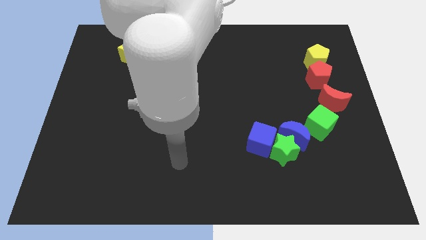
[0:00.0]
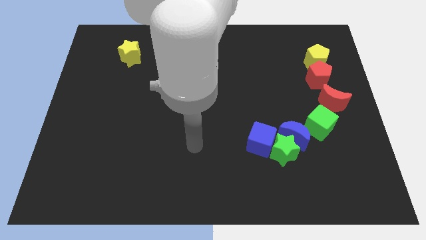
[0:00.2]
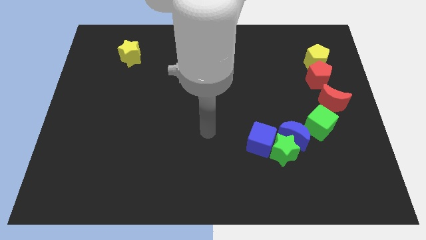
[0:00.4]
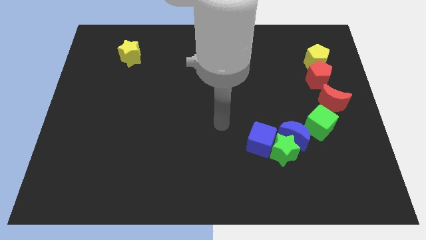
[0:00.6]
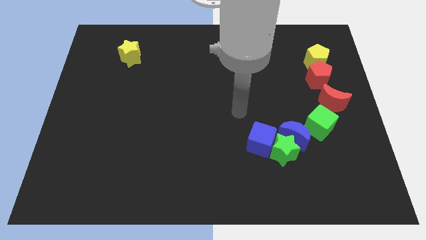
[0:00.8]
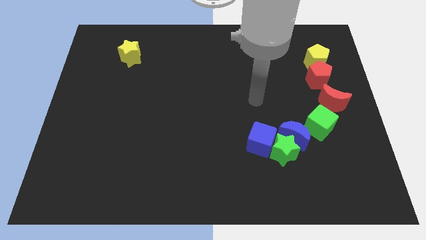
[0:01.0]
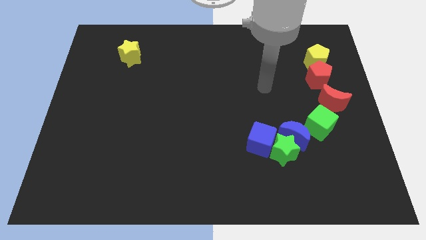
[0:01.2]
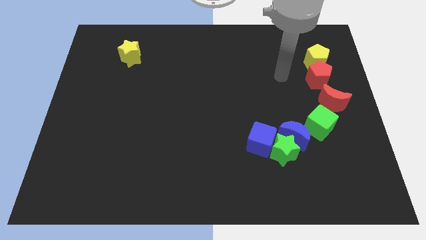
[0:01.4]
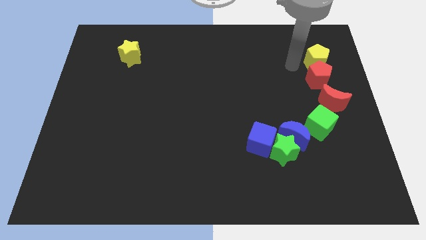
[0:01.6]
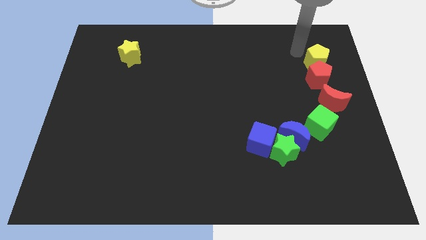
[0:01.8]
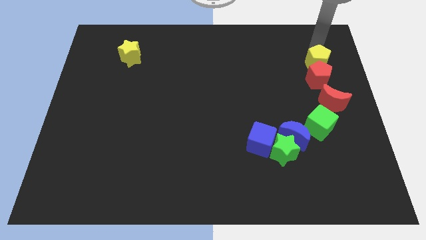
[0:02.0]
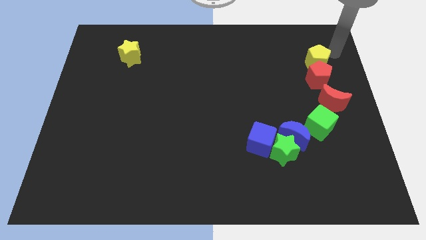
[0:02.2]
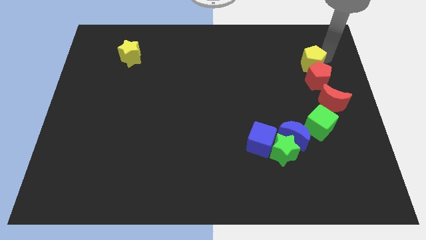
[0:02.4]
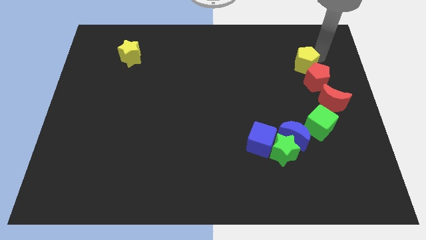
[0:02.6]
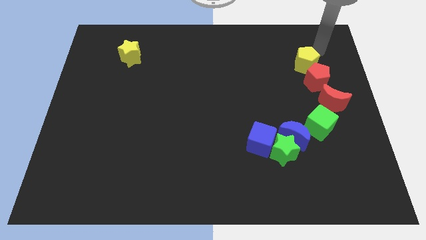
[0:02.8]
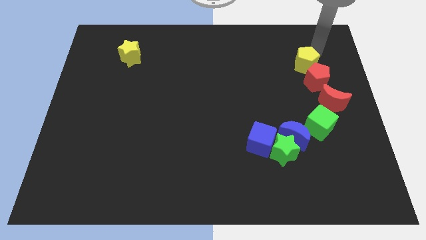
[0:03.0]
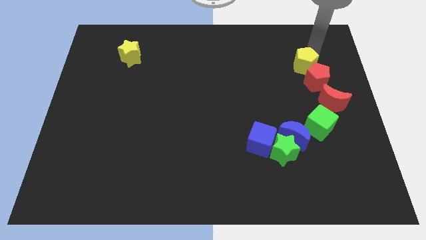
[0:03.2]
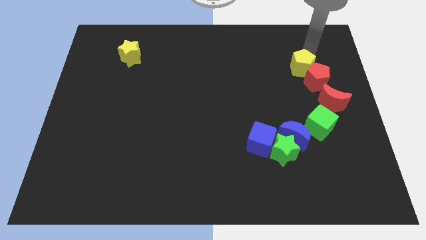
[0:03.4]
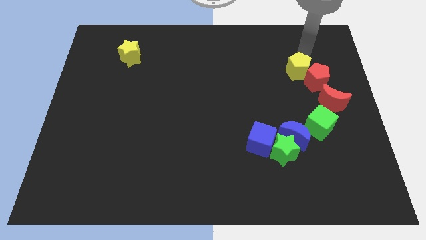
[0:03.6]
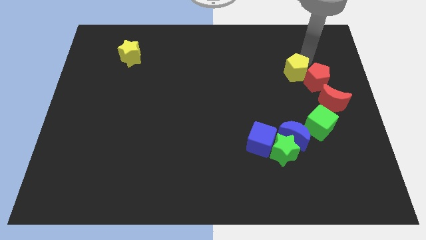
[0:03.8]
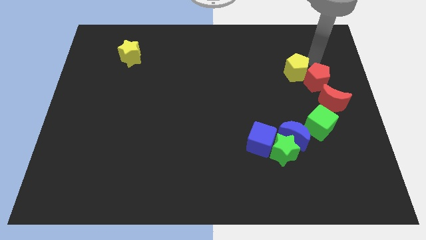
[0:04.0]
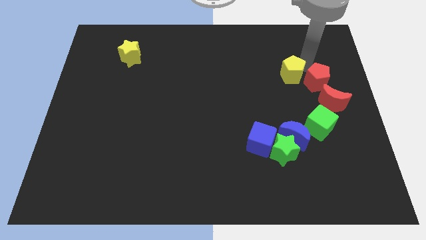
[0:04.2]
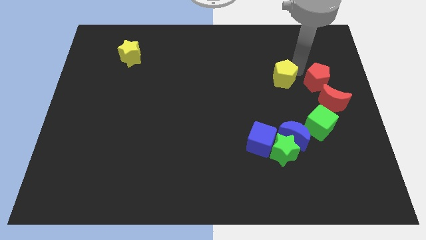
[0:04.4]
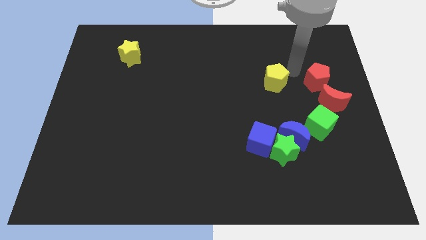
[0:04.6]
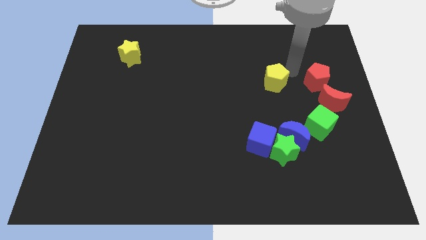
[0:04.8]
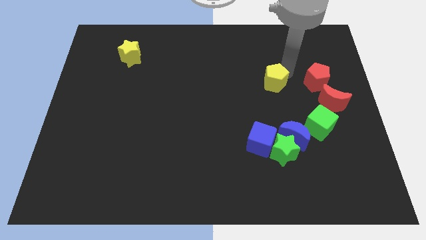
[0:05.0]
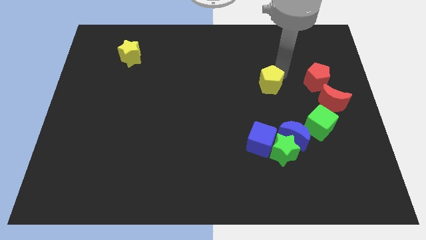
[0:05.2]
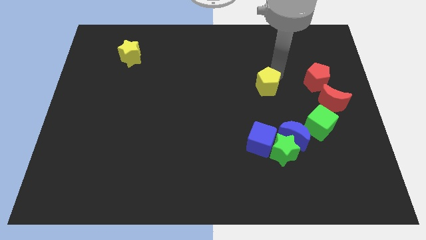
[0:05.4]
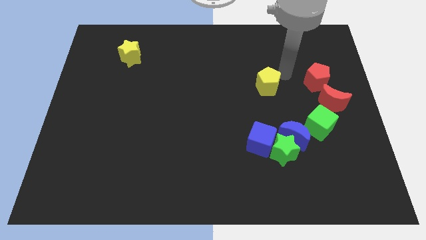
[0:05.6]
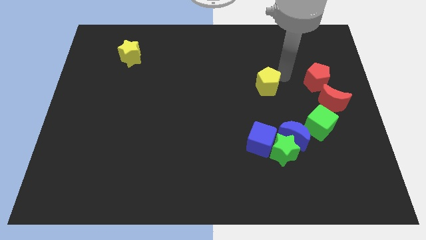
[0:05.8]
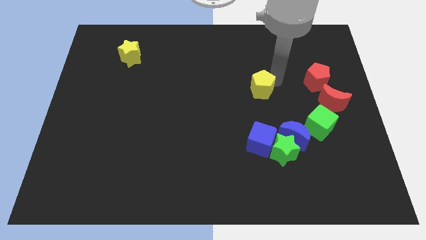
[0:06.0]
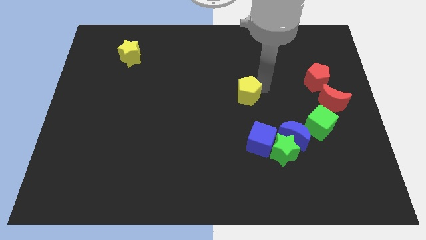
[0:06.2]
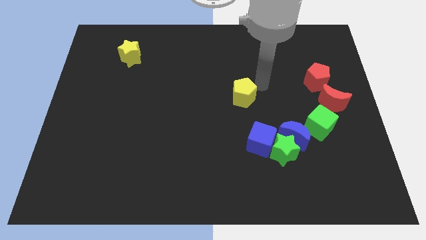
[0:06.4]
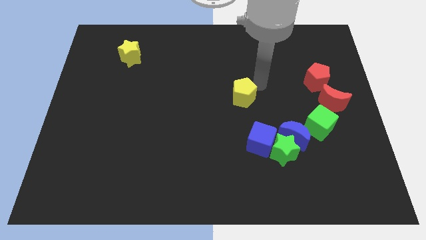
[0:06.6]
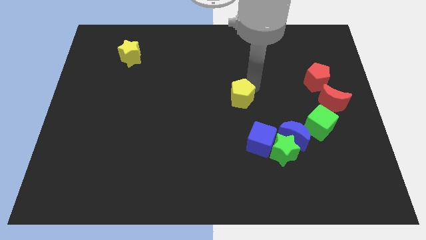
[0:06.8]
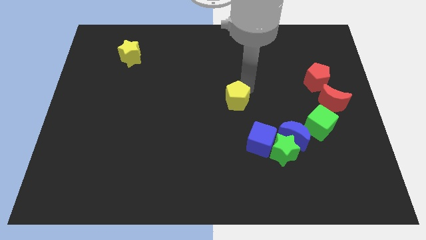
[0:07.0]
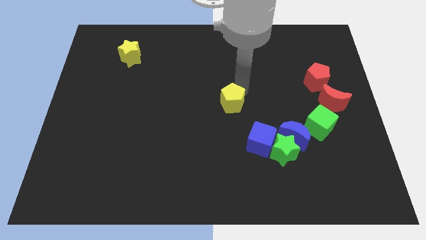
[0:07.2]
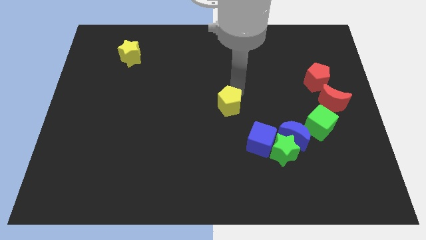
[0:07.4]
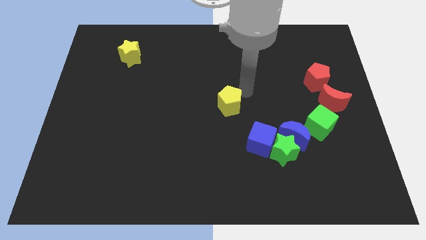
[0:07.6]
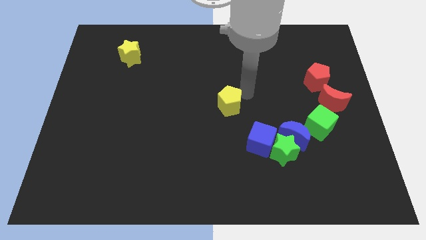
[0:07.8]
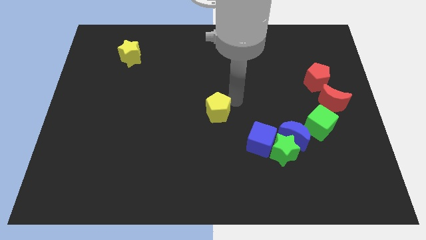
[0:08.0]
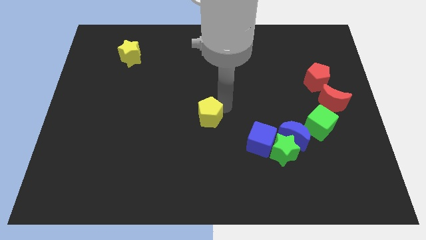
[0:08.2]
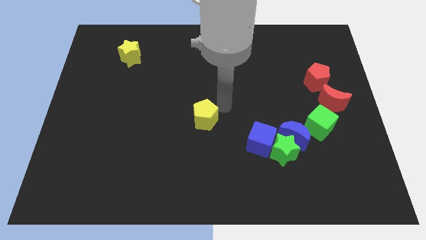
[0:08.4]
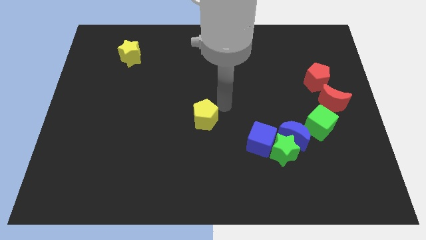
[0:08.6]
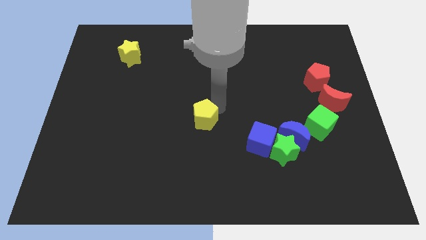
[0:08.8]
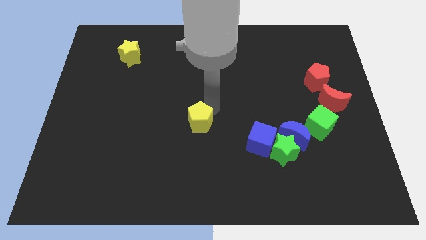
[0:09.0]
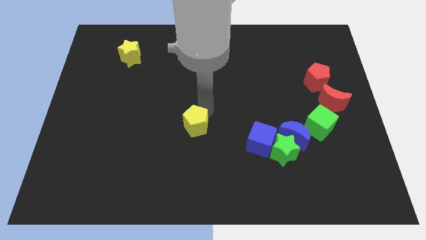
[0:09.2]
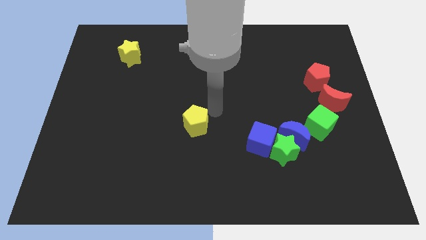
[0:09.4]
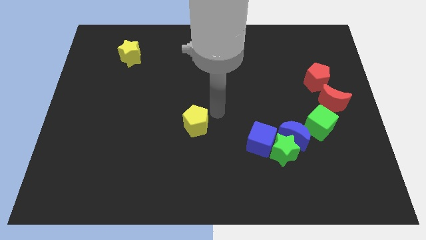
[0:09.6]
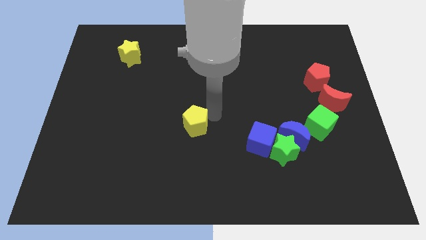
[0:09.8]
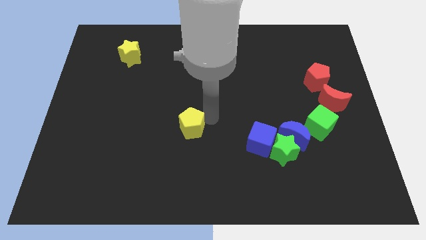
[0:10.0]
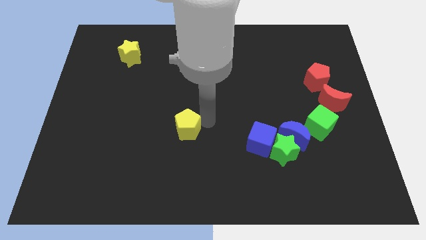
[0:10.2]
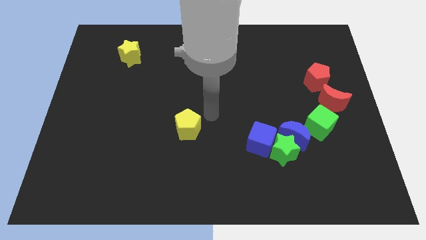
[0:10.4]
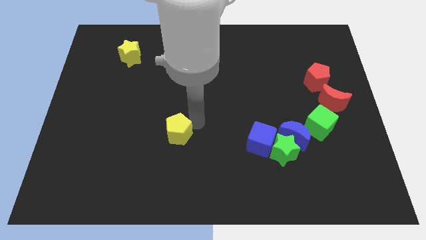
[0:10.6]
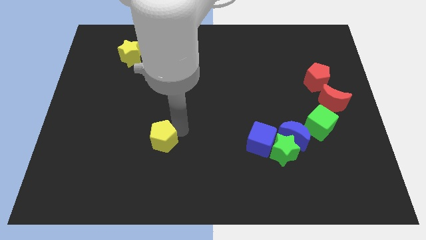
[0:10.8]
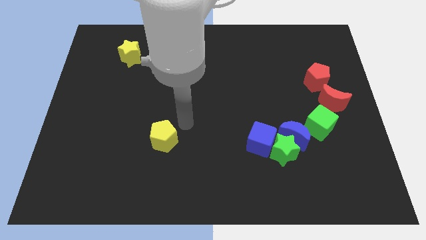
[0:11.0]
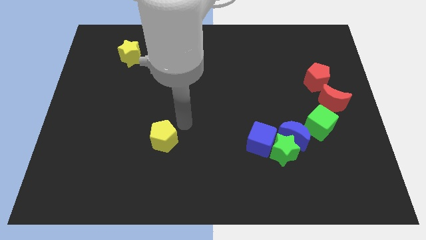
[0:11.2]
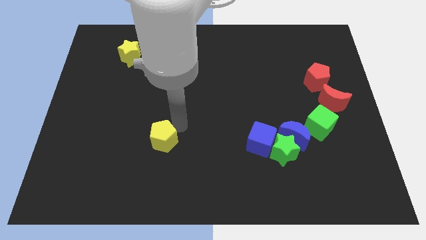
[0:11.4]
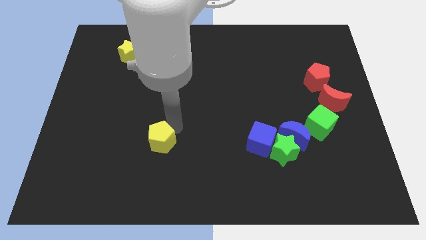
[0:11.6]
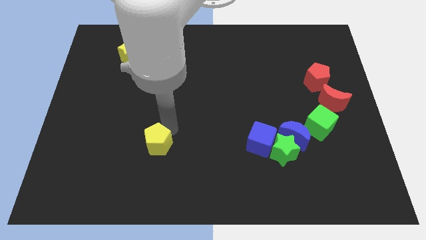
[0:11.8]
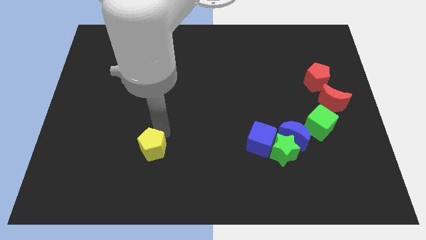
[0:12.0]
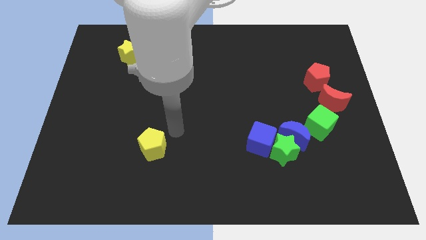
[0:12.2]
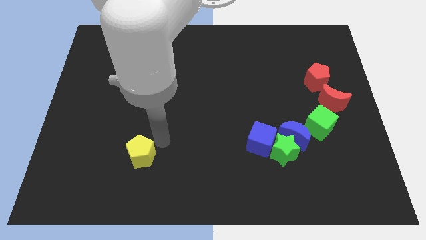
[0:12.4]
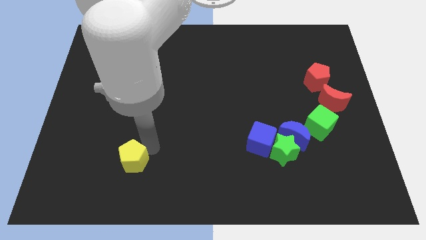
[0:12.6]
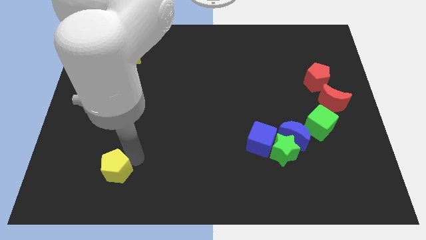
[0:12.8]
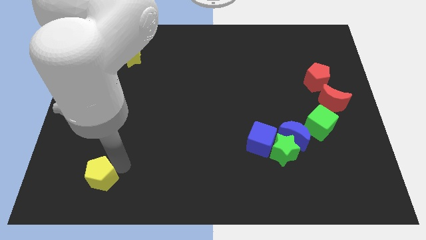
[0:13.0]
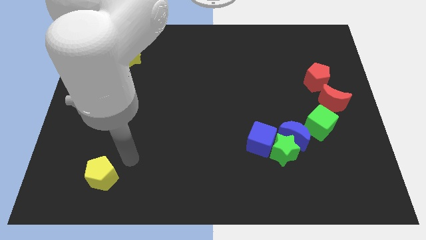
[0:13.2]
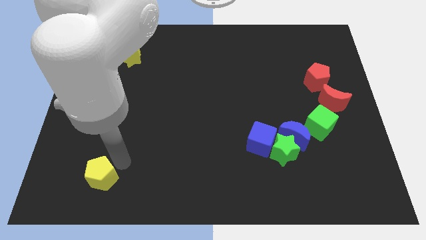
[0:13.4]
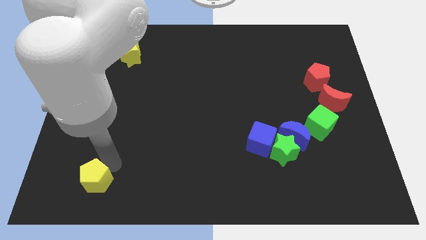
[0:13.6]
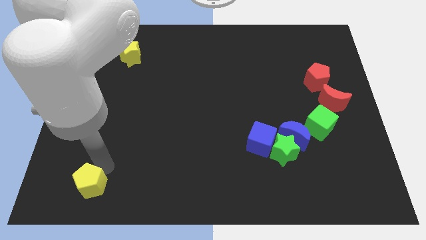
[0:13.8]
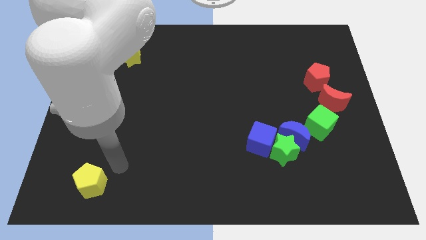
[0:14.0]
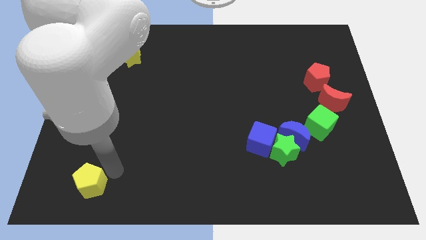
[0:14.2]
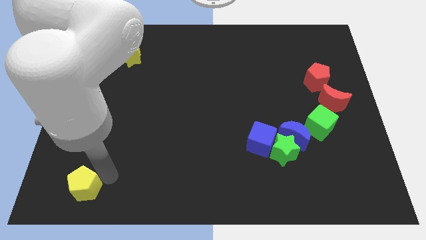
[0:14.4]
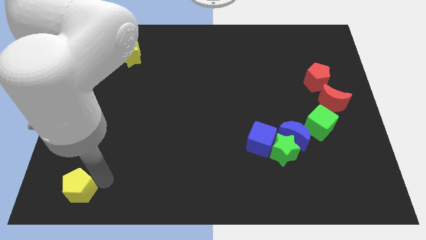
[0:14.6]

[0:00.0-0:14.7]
slide the yellow pentagon to the lower left corner
